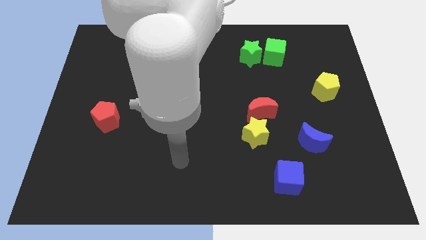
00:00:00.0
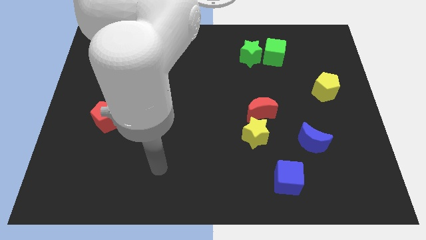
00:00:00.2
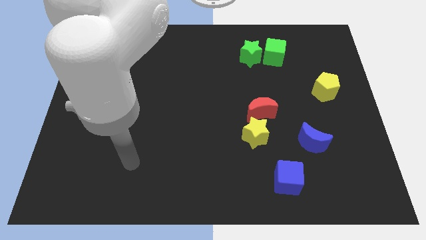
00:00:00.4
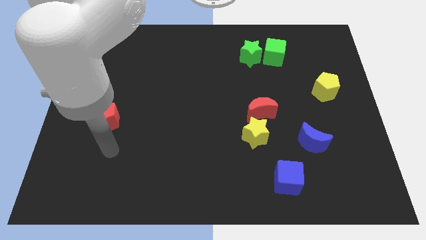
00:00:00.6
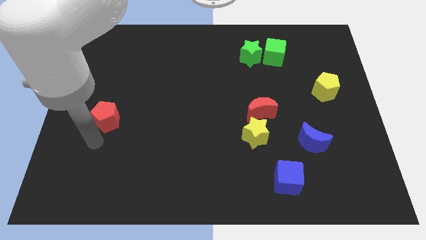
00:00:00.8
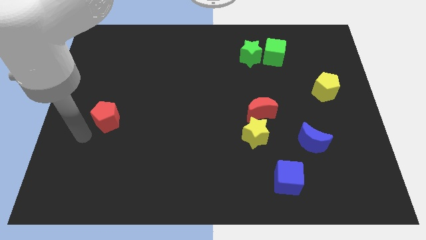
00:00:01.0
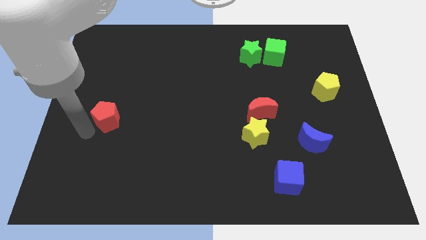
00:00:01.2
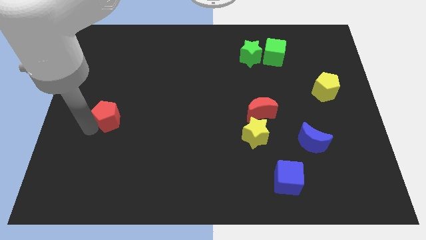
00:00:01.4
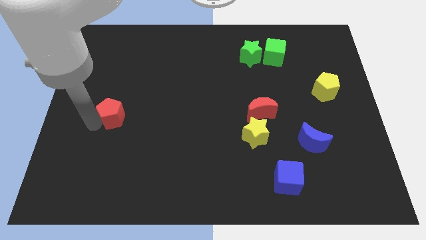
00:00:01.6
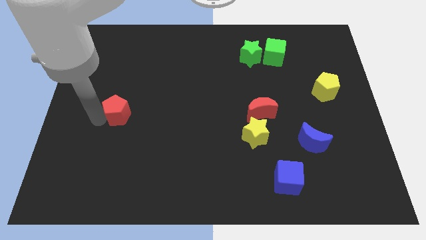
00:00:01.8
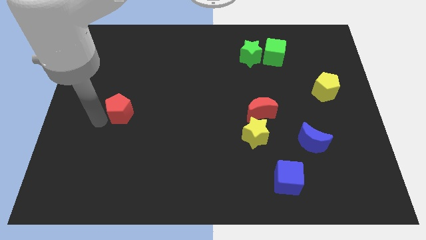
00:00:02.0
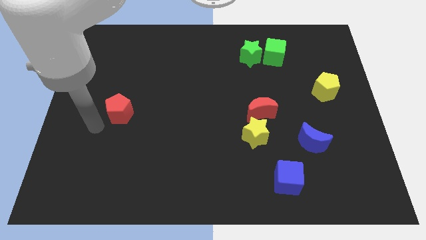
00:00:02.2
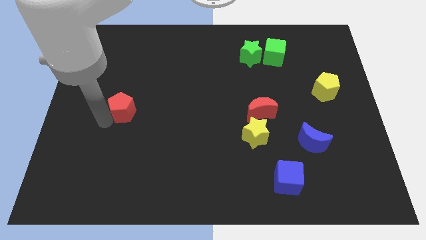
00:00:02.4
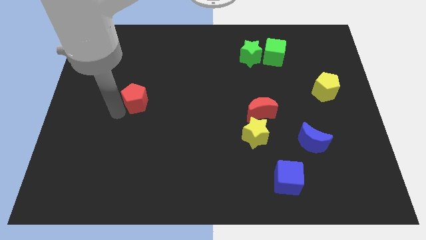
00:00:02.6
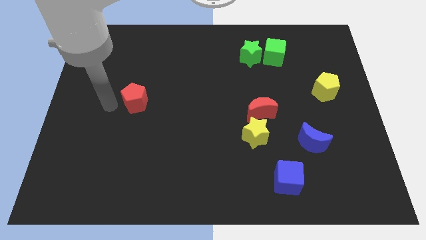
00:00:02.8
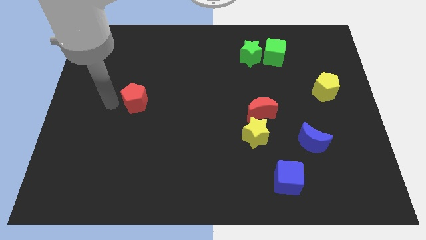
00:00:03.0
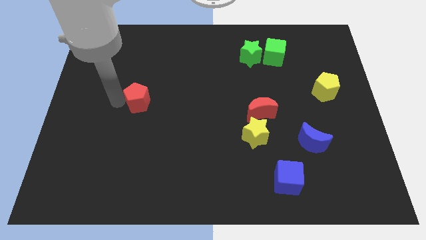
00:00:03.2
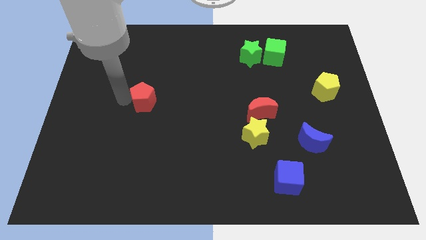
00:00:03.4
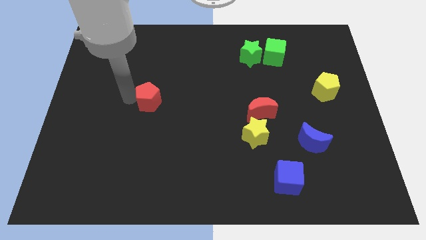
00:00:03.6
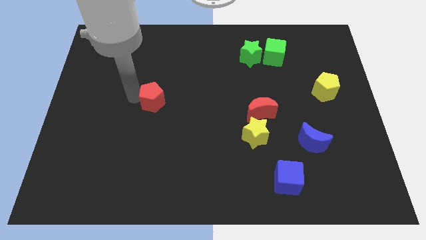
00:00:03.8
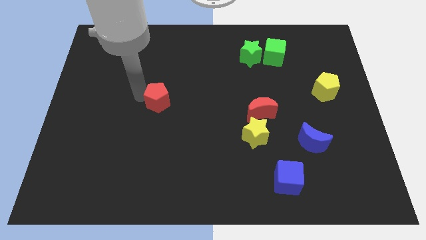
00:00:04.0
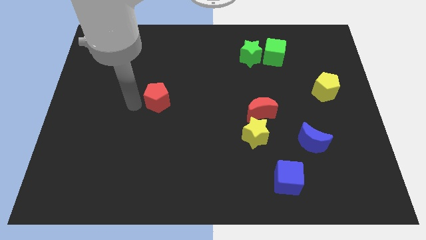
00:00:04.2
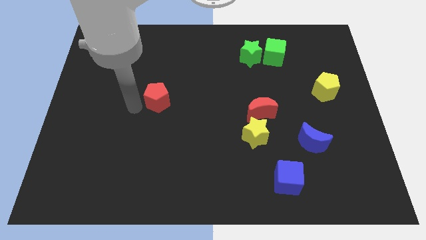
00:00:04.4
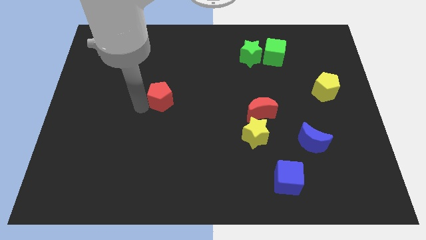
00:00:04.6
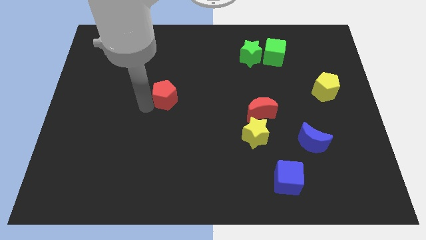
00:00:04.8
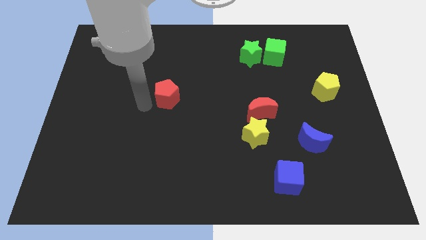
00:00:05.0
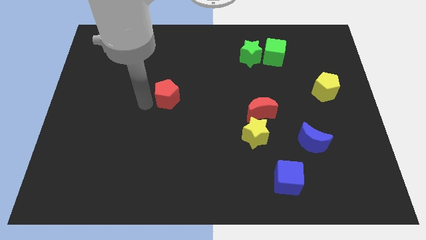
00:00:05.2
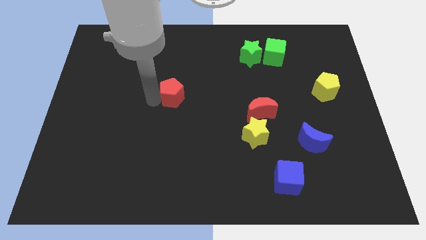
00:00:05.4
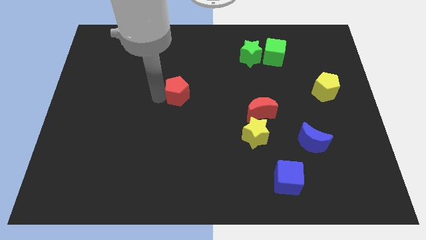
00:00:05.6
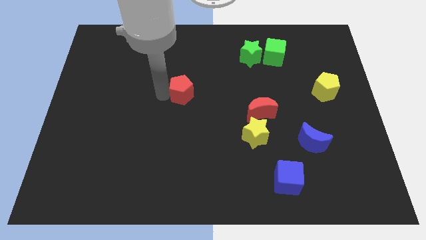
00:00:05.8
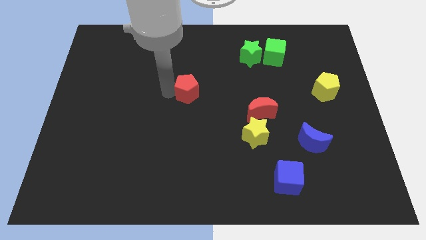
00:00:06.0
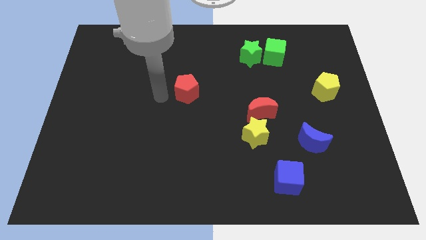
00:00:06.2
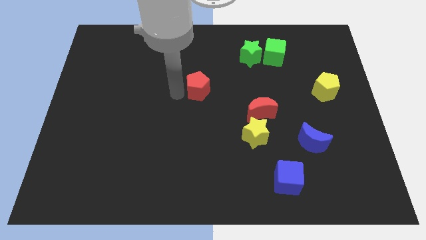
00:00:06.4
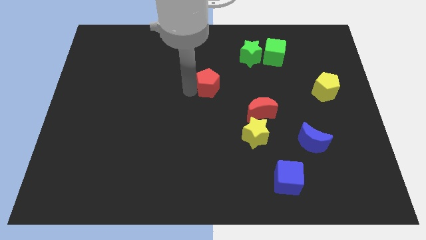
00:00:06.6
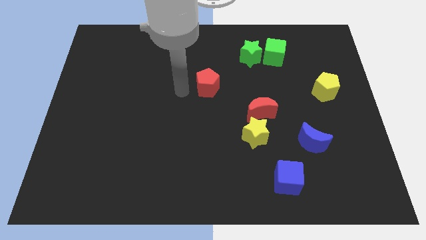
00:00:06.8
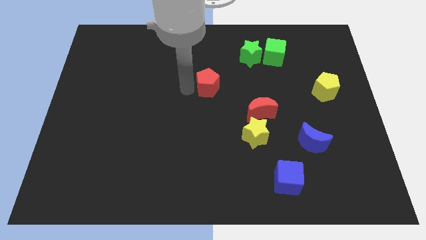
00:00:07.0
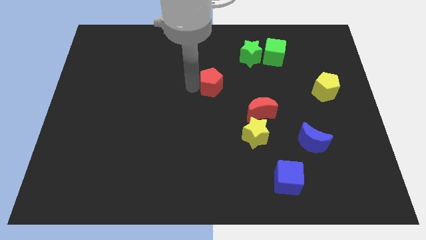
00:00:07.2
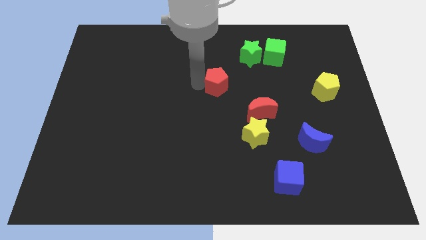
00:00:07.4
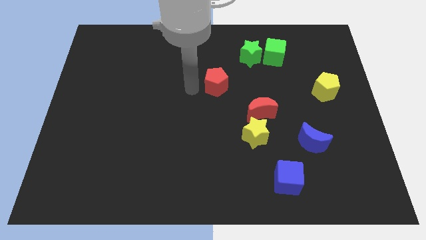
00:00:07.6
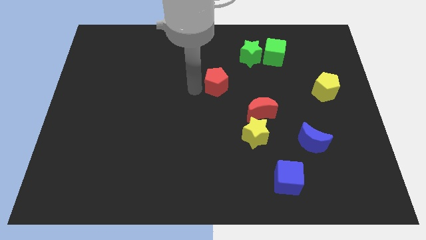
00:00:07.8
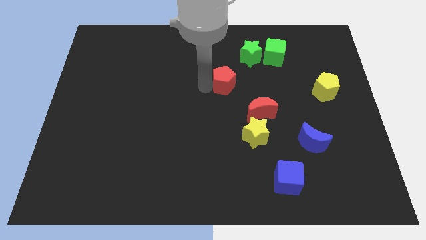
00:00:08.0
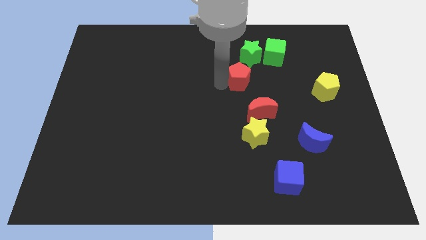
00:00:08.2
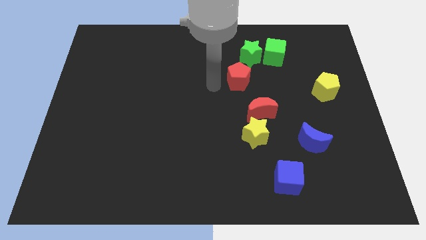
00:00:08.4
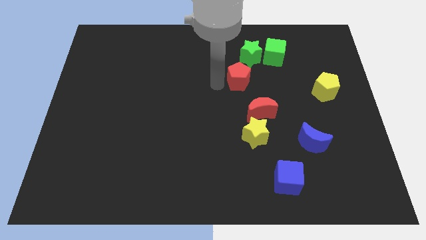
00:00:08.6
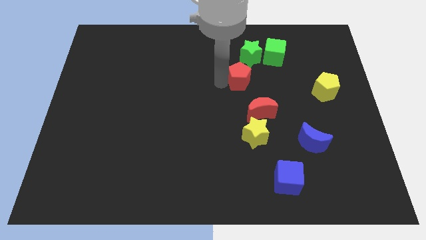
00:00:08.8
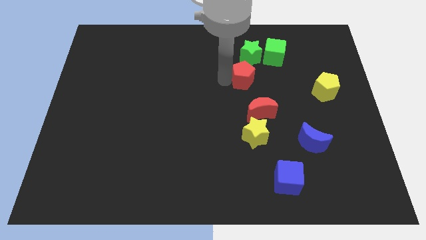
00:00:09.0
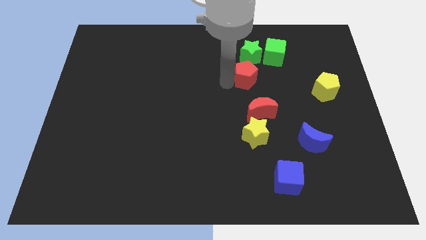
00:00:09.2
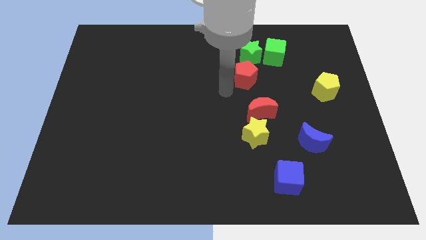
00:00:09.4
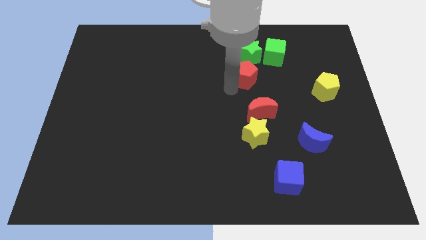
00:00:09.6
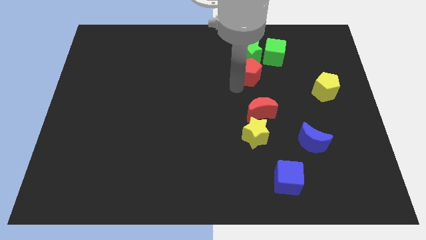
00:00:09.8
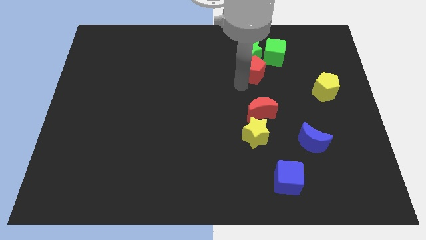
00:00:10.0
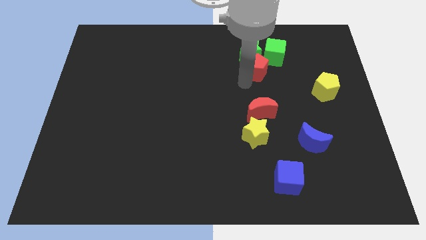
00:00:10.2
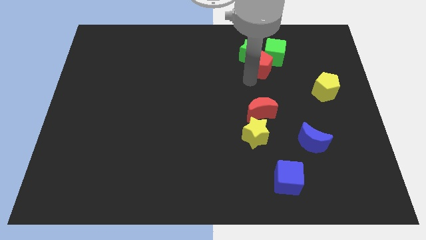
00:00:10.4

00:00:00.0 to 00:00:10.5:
move the red pentagon to the green cube

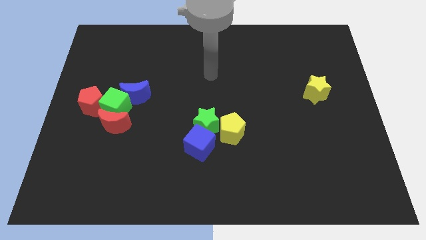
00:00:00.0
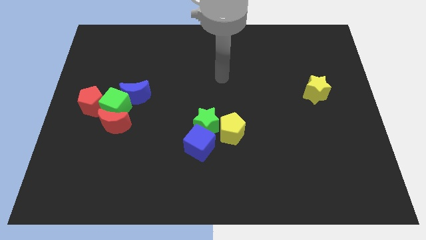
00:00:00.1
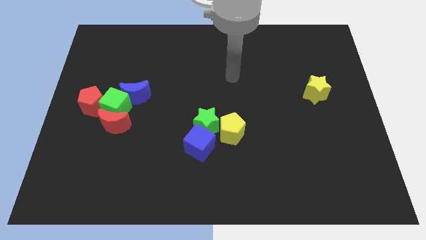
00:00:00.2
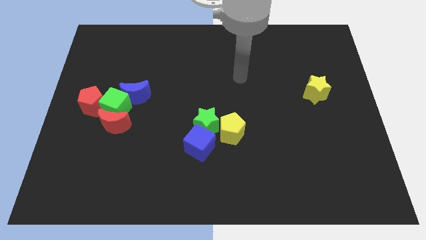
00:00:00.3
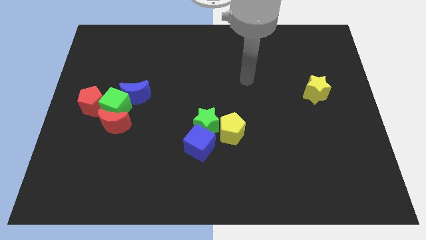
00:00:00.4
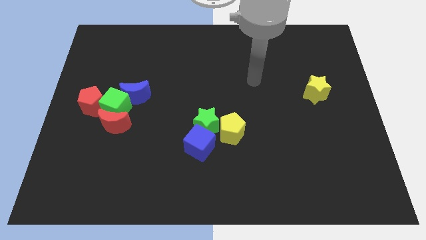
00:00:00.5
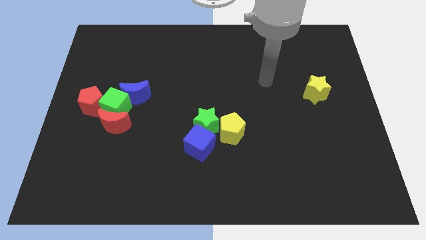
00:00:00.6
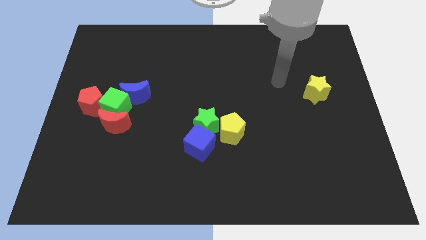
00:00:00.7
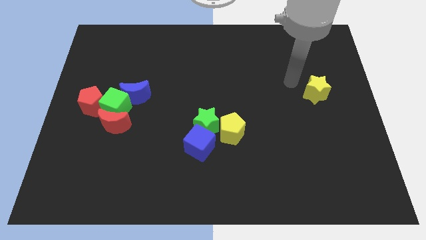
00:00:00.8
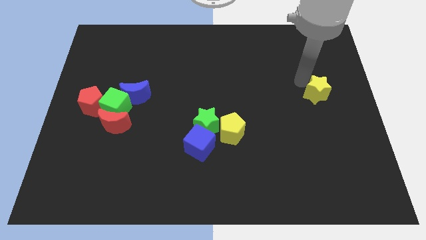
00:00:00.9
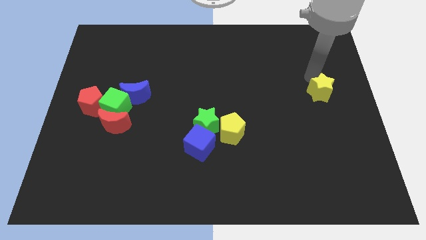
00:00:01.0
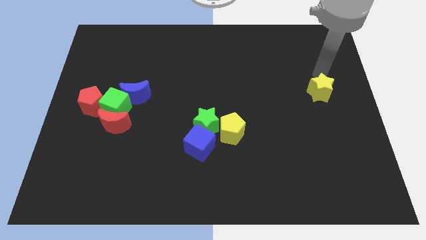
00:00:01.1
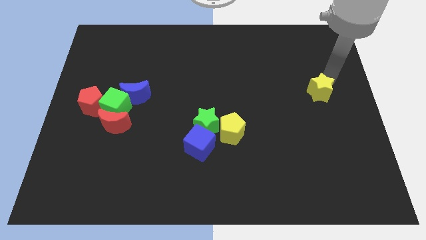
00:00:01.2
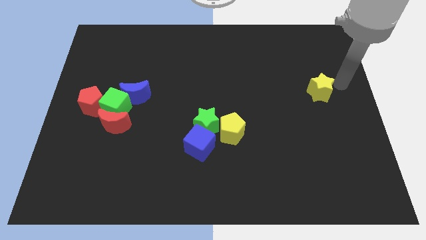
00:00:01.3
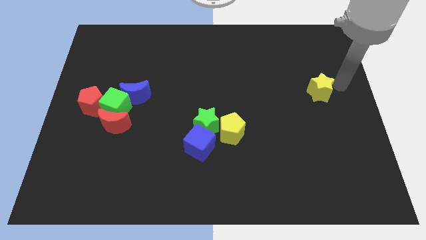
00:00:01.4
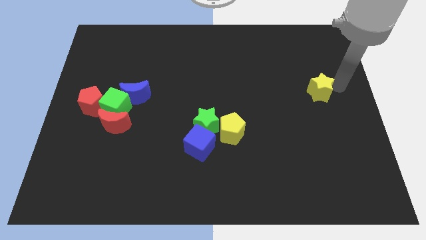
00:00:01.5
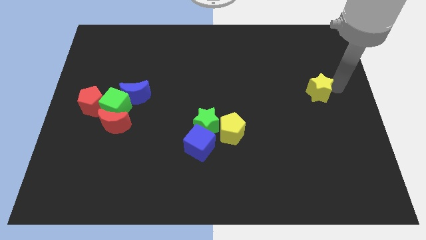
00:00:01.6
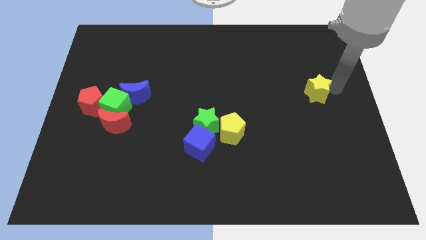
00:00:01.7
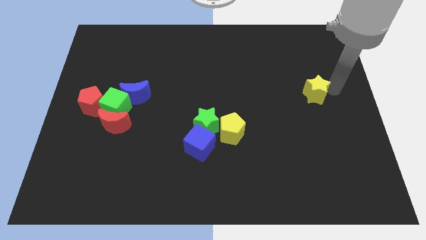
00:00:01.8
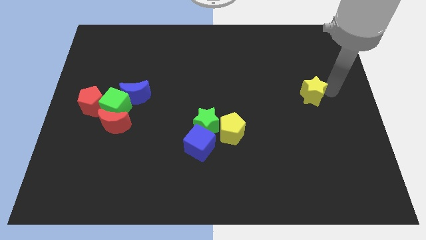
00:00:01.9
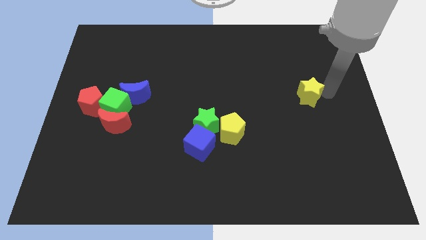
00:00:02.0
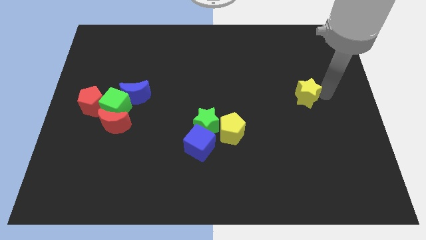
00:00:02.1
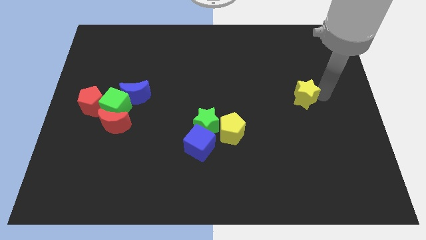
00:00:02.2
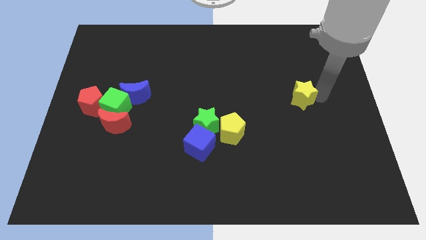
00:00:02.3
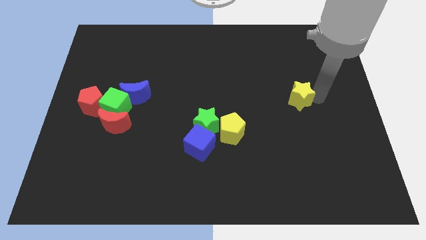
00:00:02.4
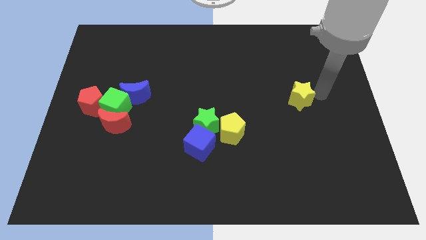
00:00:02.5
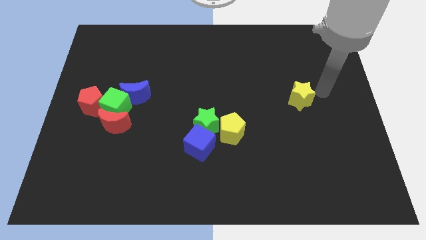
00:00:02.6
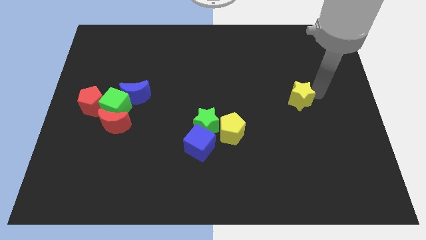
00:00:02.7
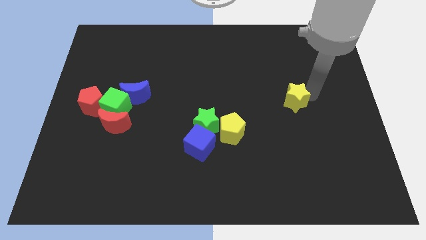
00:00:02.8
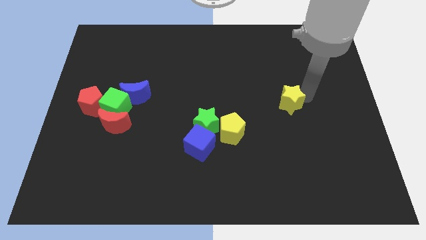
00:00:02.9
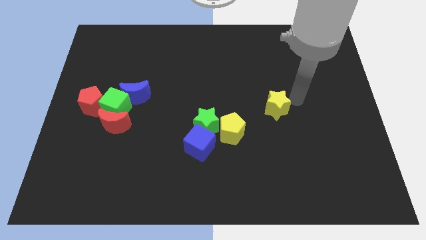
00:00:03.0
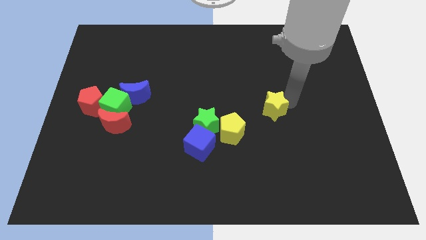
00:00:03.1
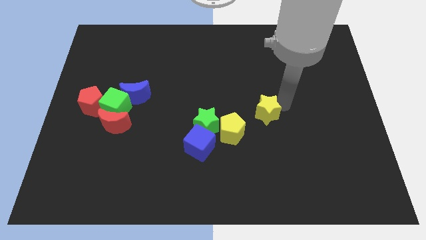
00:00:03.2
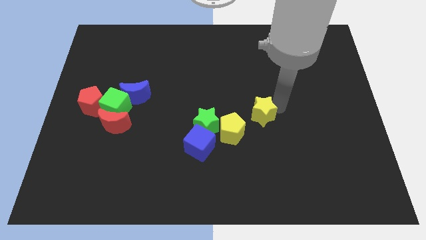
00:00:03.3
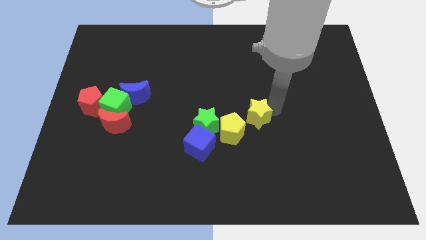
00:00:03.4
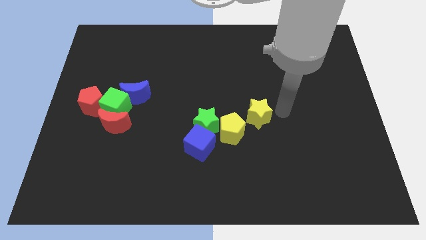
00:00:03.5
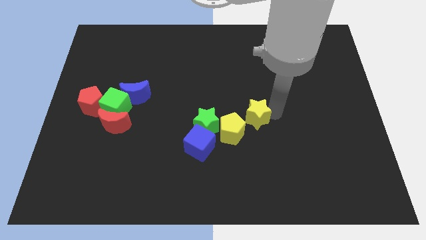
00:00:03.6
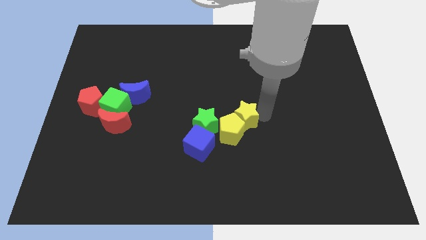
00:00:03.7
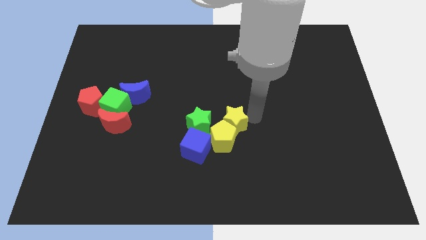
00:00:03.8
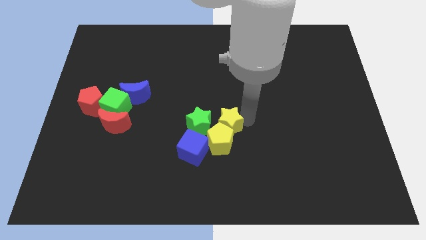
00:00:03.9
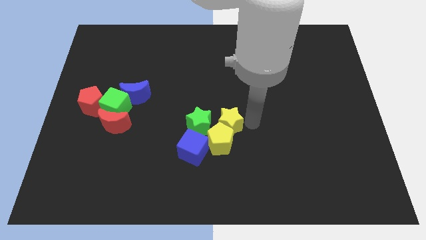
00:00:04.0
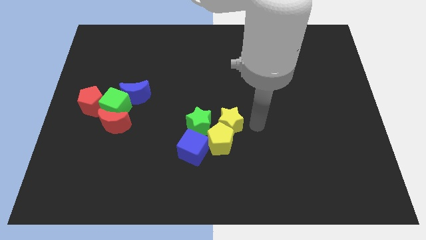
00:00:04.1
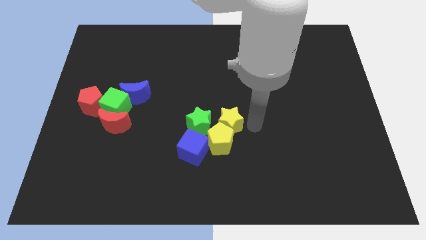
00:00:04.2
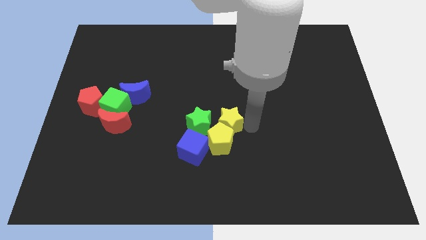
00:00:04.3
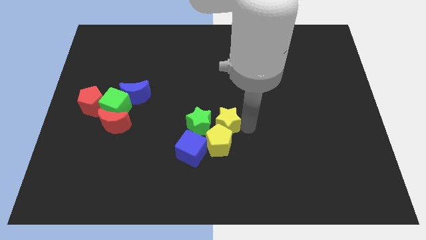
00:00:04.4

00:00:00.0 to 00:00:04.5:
put the yellow star next to the green star
